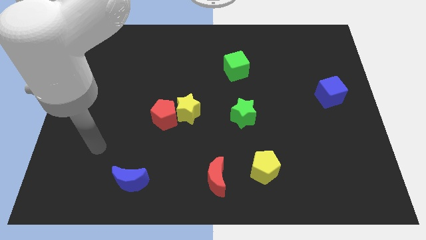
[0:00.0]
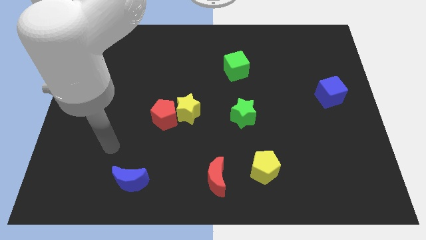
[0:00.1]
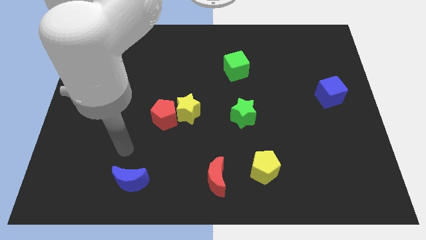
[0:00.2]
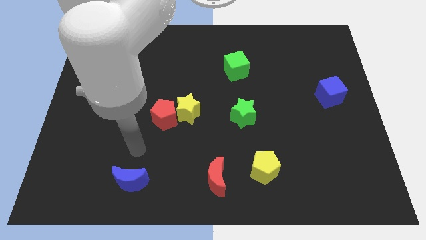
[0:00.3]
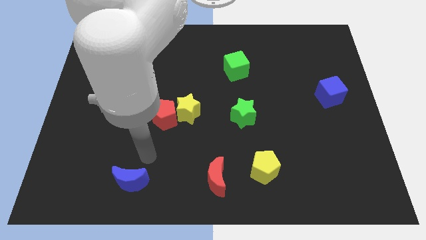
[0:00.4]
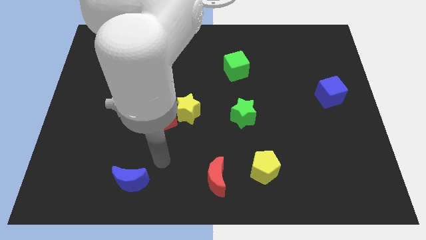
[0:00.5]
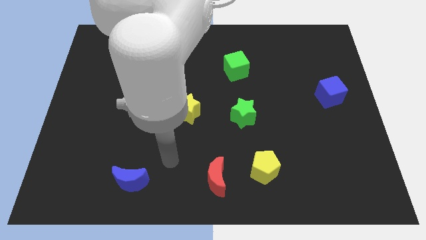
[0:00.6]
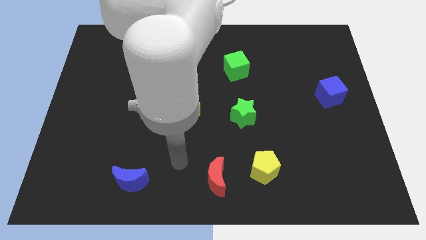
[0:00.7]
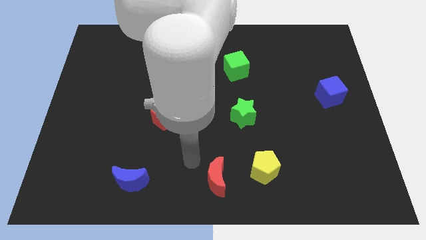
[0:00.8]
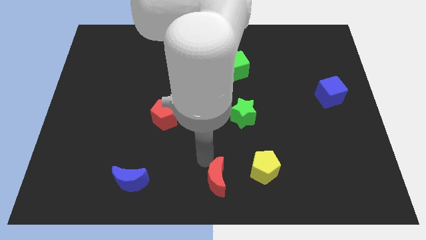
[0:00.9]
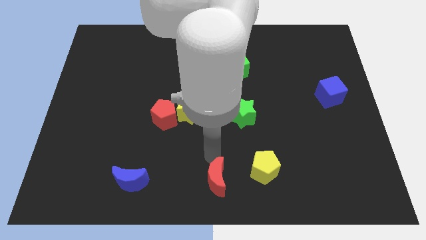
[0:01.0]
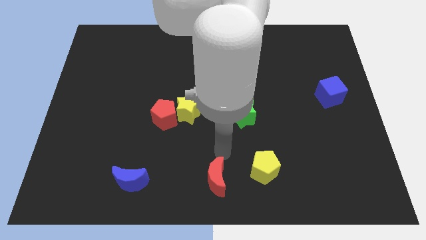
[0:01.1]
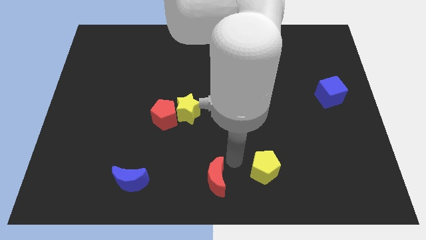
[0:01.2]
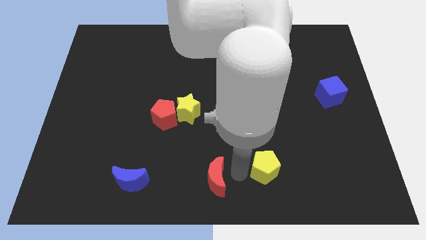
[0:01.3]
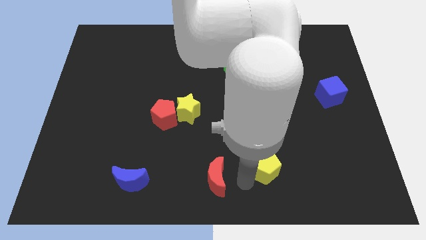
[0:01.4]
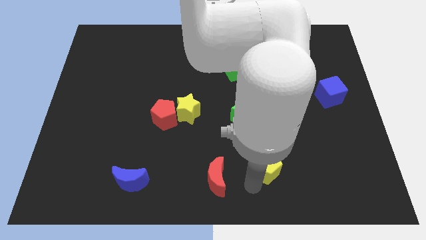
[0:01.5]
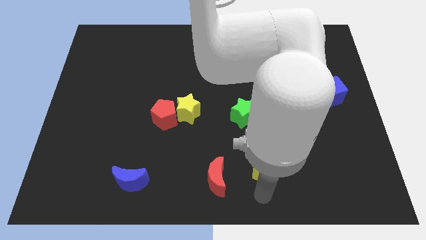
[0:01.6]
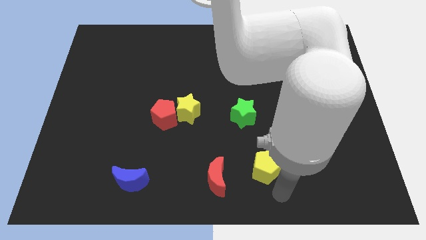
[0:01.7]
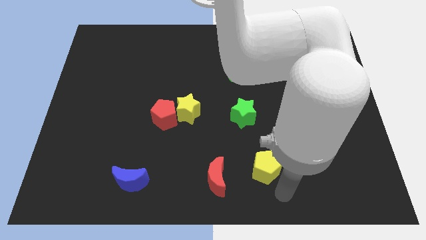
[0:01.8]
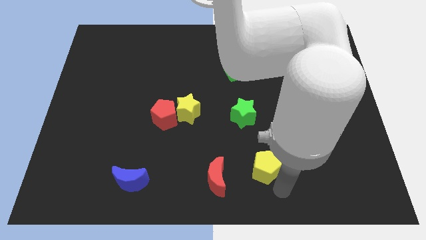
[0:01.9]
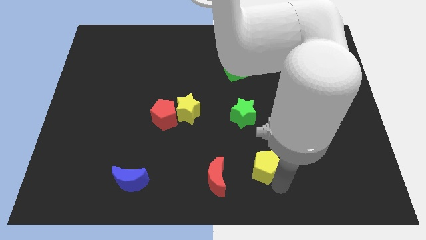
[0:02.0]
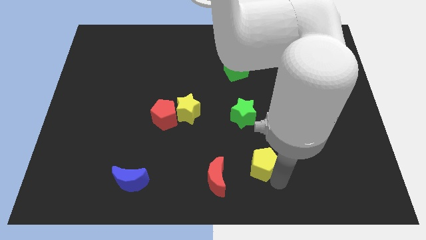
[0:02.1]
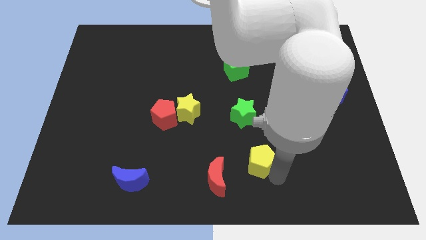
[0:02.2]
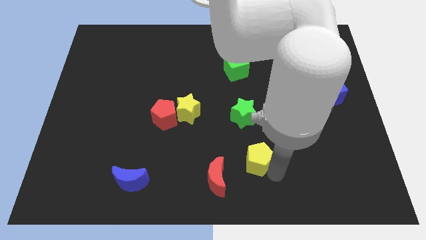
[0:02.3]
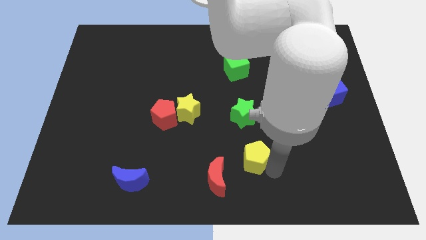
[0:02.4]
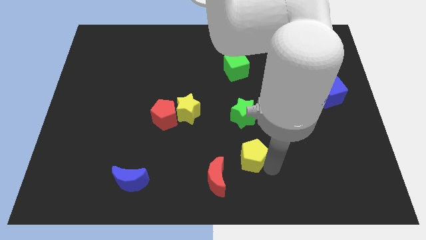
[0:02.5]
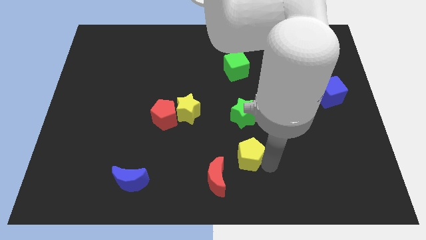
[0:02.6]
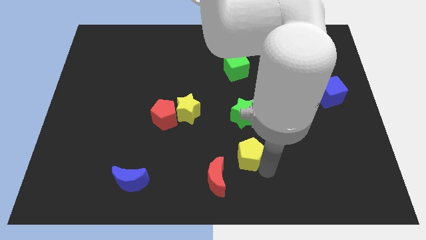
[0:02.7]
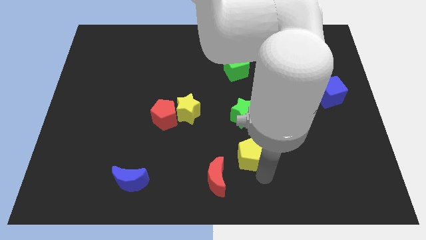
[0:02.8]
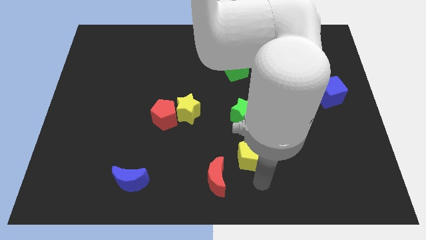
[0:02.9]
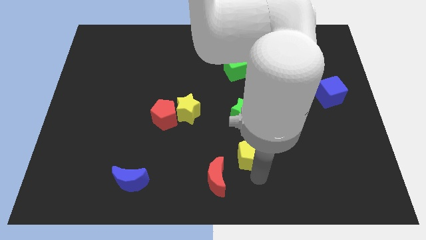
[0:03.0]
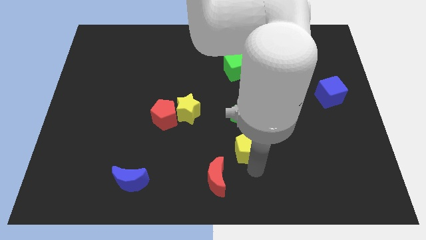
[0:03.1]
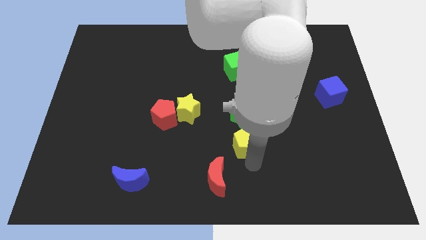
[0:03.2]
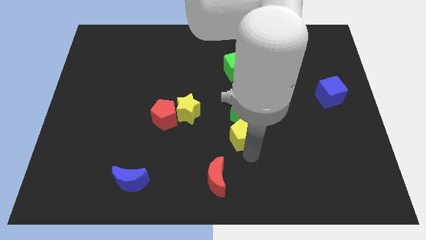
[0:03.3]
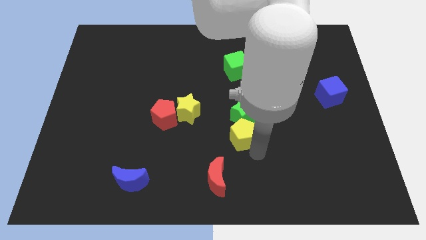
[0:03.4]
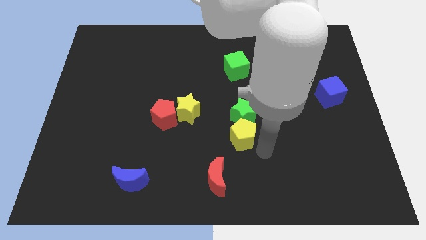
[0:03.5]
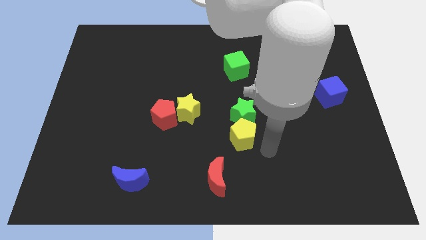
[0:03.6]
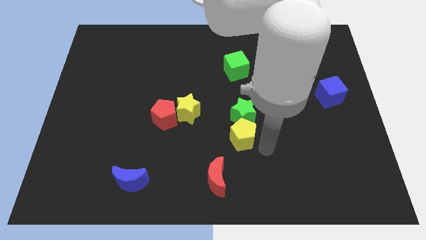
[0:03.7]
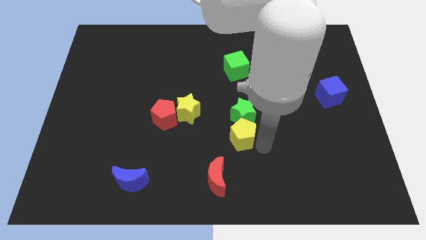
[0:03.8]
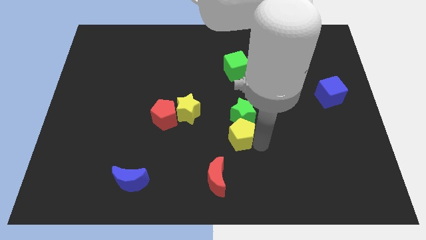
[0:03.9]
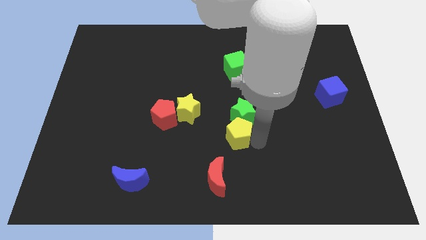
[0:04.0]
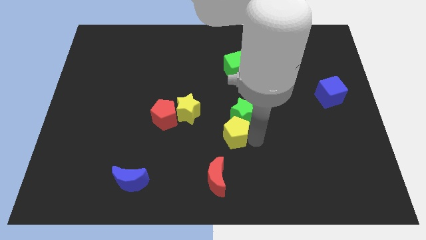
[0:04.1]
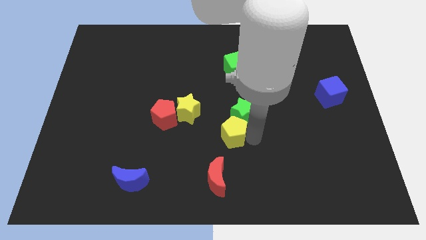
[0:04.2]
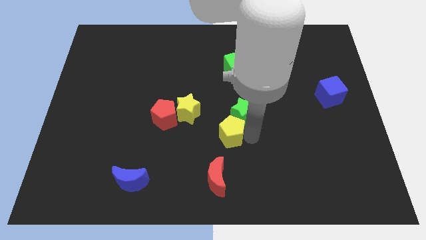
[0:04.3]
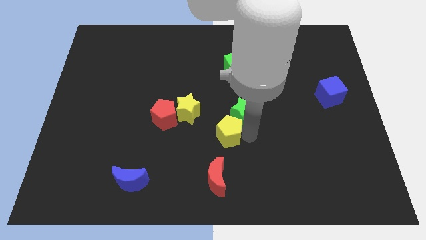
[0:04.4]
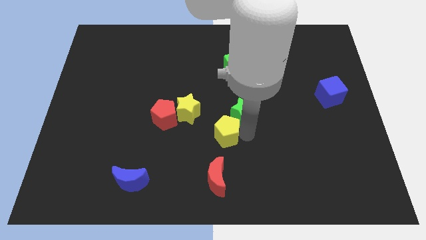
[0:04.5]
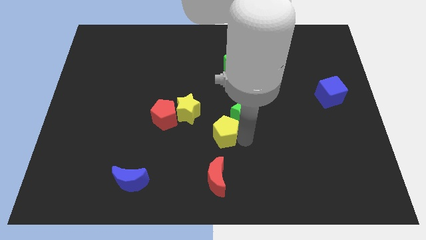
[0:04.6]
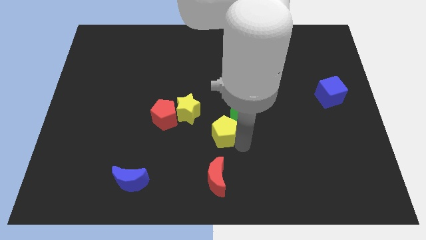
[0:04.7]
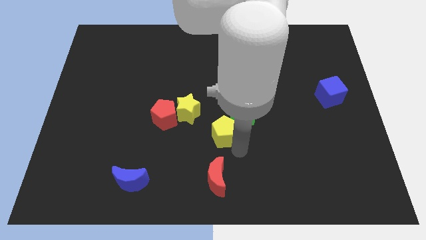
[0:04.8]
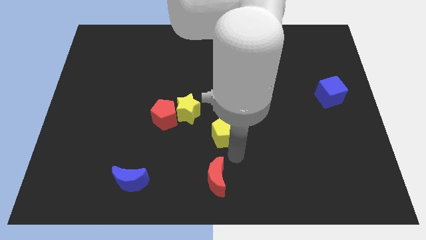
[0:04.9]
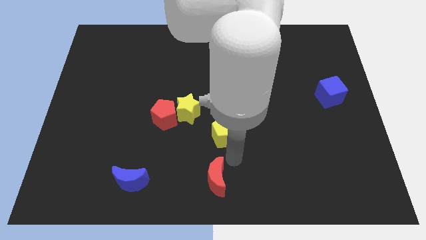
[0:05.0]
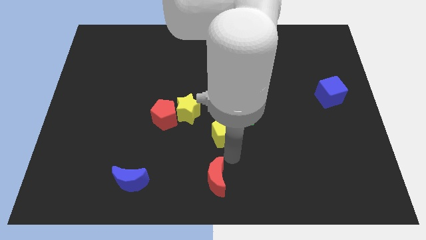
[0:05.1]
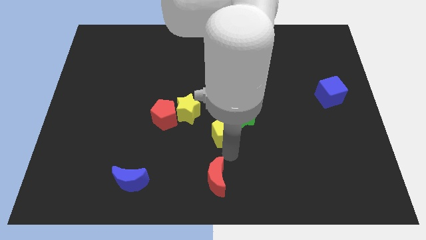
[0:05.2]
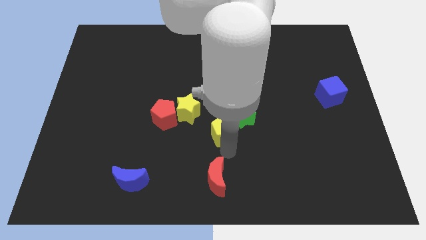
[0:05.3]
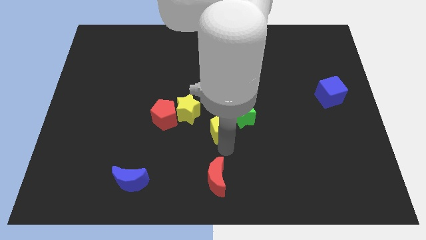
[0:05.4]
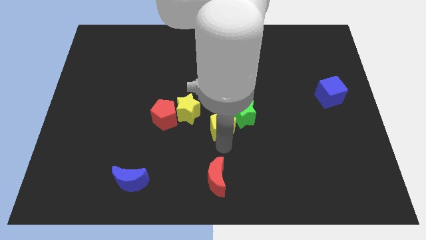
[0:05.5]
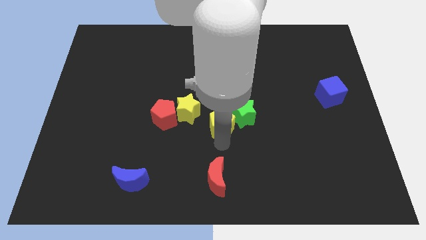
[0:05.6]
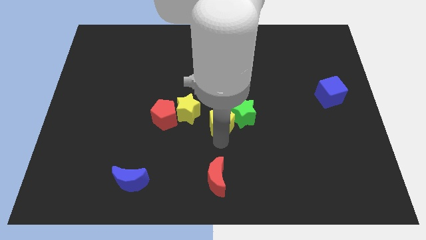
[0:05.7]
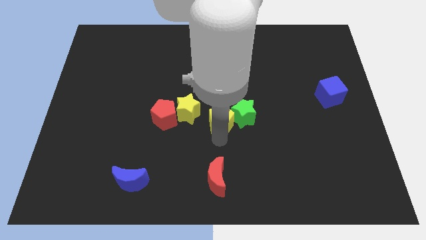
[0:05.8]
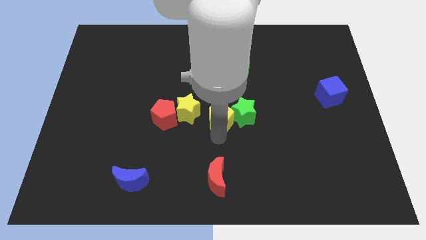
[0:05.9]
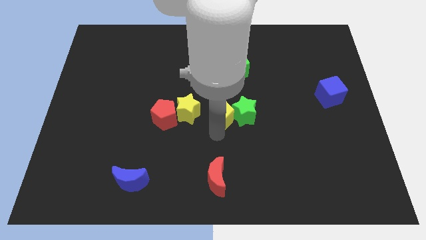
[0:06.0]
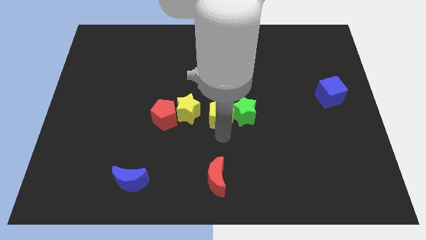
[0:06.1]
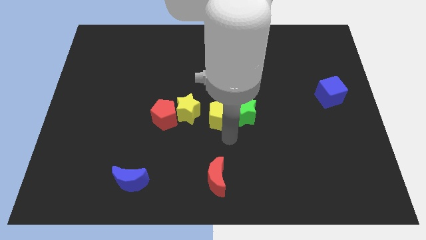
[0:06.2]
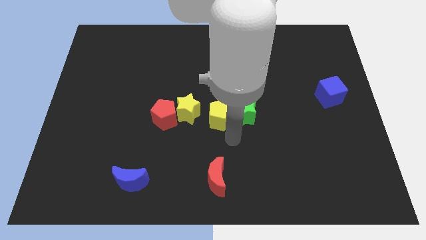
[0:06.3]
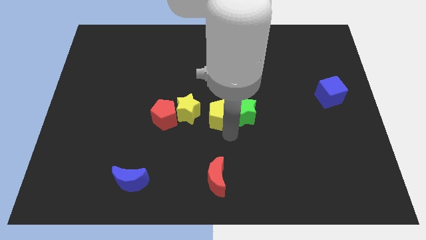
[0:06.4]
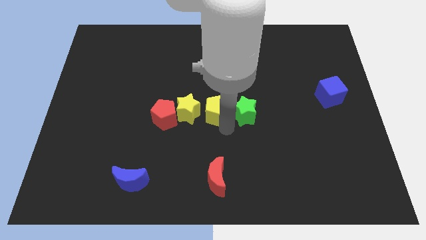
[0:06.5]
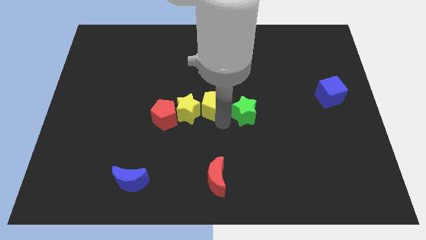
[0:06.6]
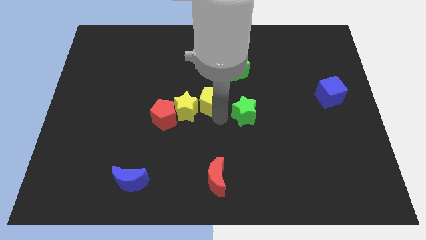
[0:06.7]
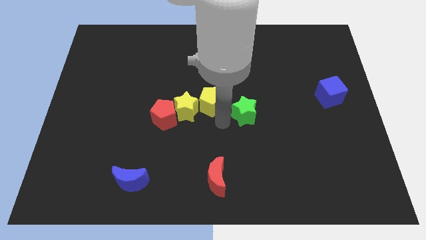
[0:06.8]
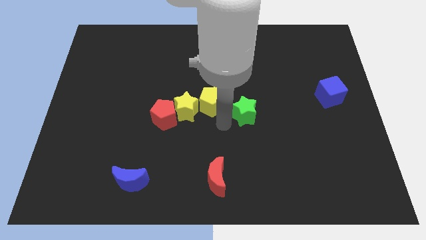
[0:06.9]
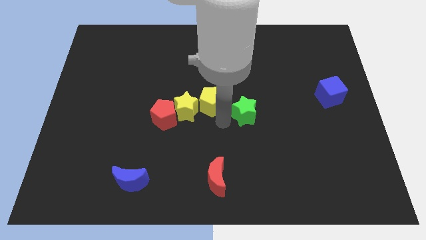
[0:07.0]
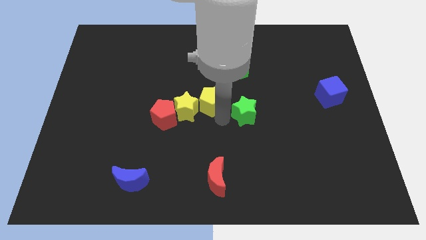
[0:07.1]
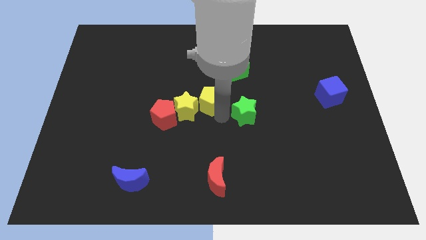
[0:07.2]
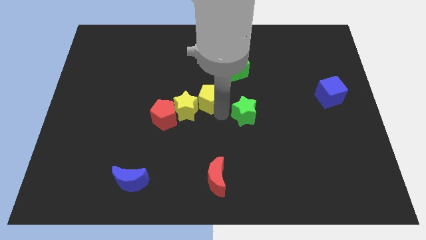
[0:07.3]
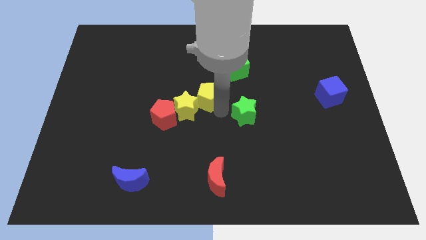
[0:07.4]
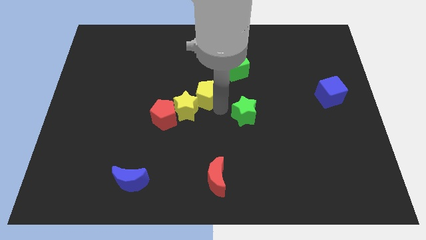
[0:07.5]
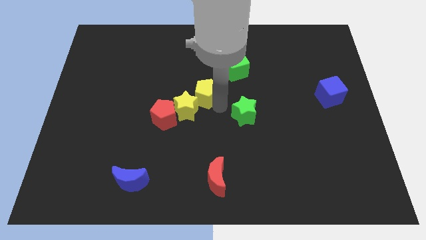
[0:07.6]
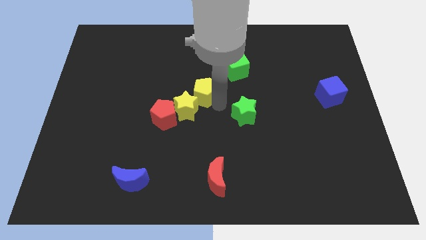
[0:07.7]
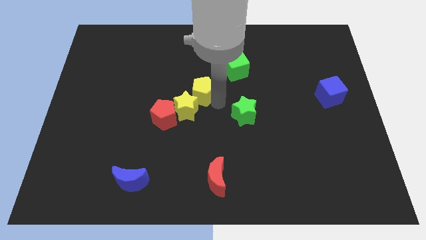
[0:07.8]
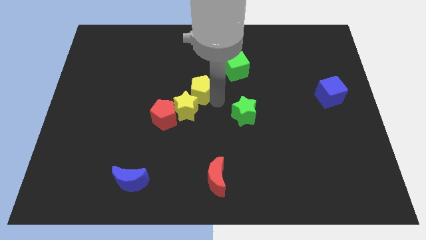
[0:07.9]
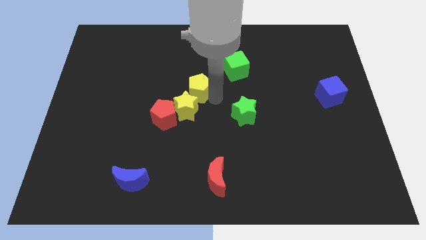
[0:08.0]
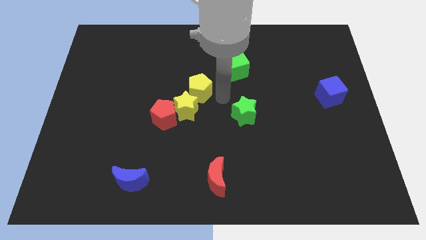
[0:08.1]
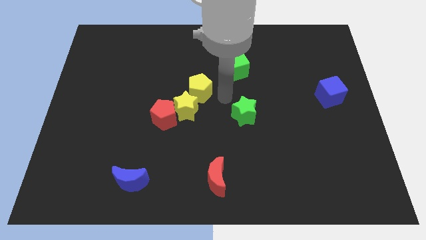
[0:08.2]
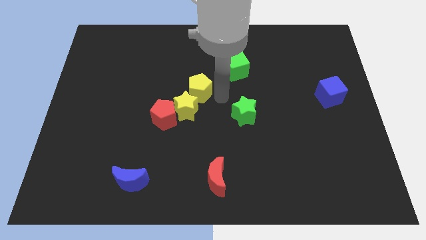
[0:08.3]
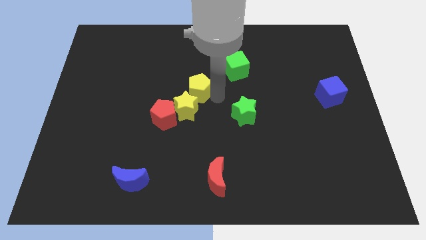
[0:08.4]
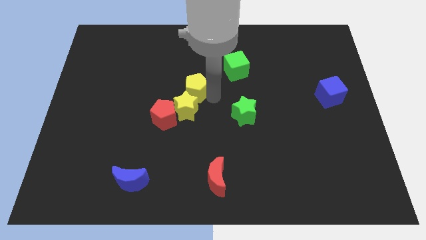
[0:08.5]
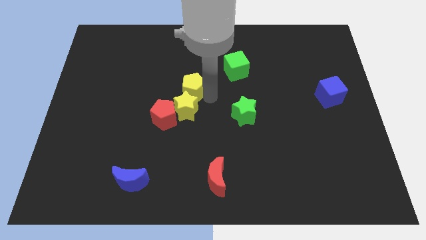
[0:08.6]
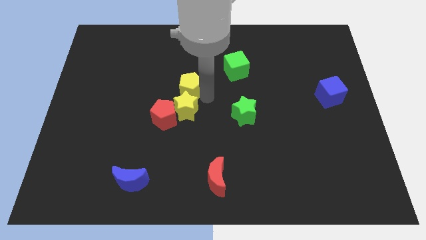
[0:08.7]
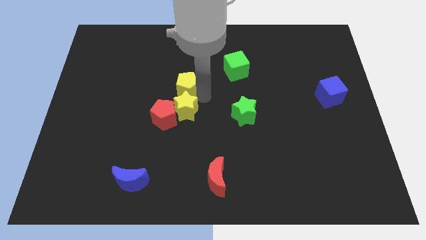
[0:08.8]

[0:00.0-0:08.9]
slide the yellow pentagon to the top side of the red pentagon
